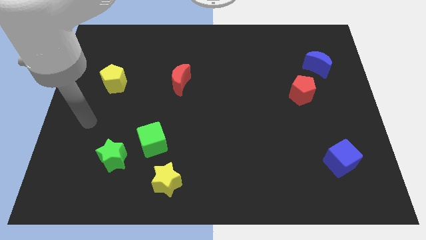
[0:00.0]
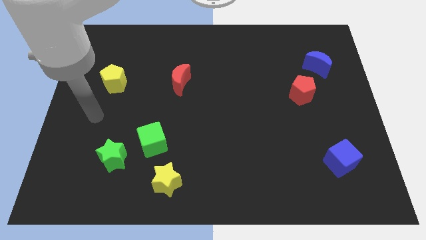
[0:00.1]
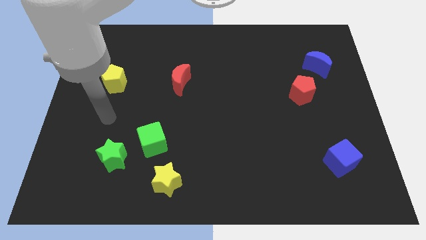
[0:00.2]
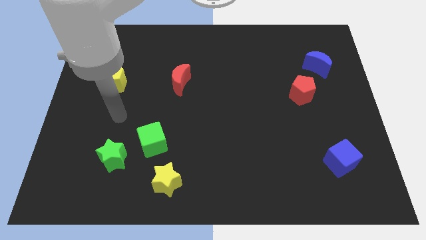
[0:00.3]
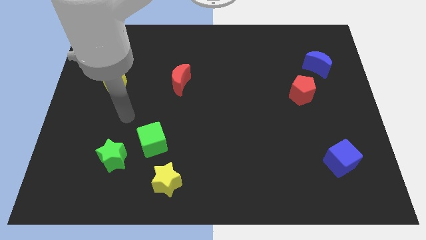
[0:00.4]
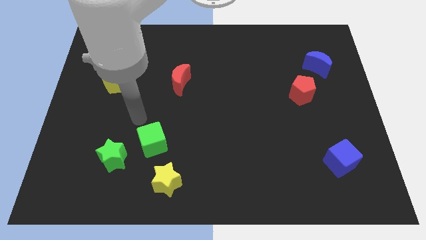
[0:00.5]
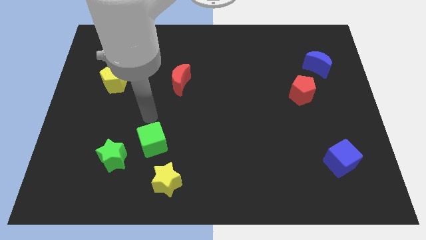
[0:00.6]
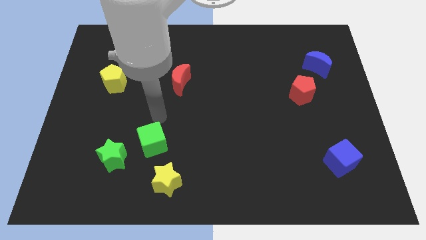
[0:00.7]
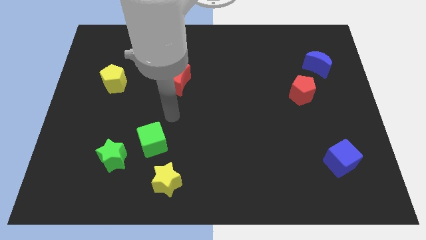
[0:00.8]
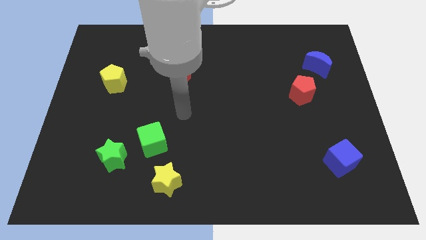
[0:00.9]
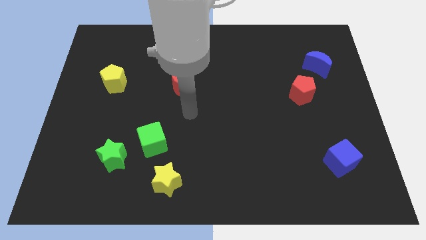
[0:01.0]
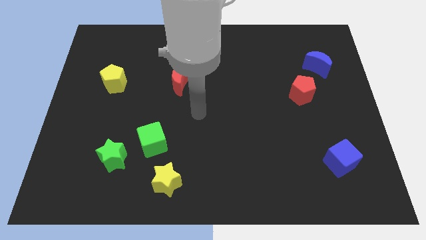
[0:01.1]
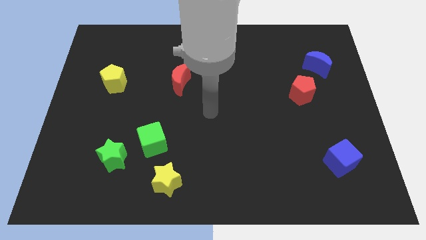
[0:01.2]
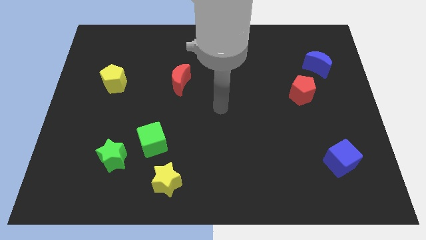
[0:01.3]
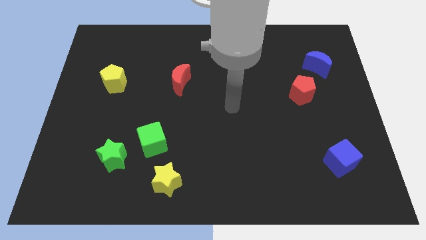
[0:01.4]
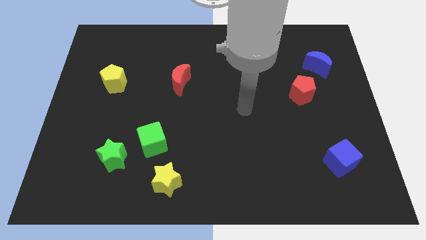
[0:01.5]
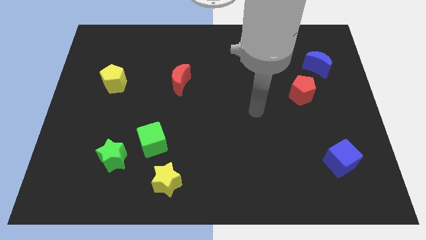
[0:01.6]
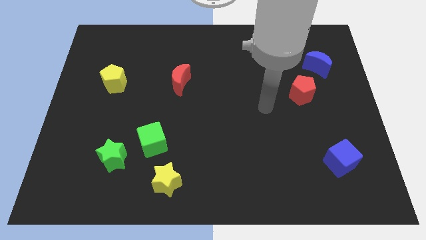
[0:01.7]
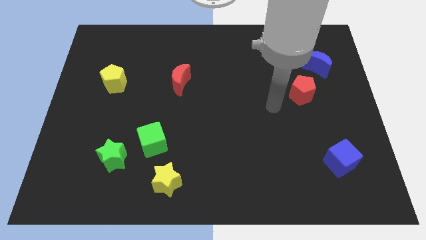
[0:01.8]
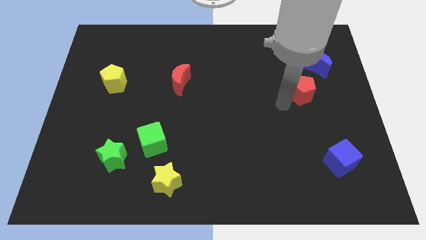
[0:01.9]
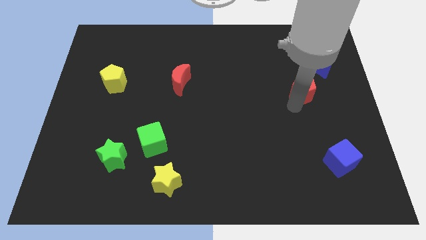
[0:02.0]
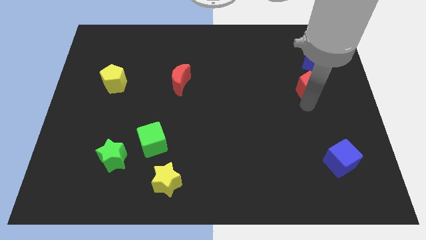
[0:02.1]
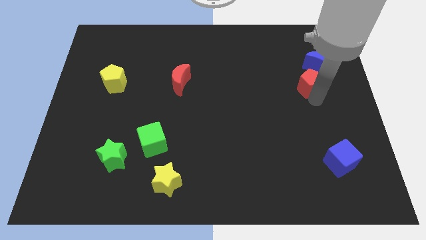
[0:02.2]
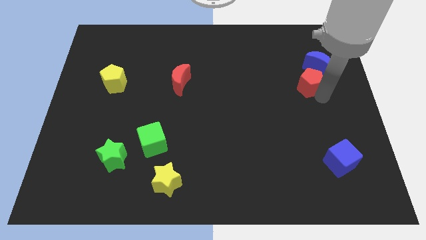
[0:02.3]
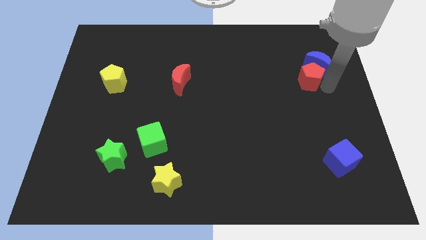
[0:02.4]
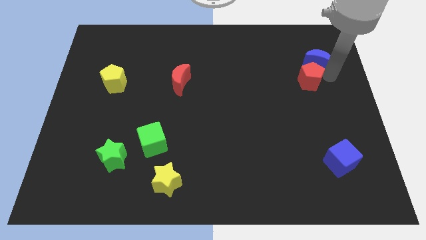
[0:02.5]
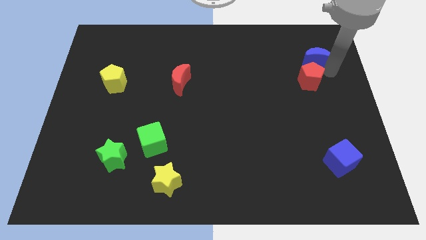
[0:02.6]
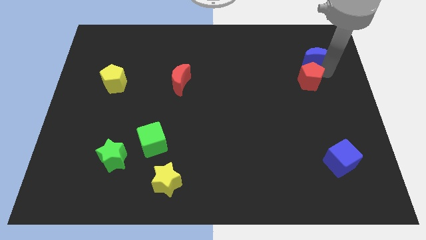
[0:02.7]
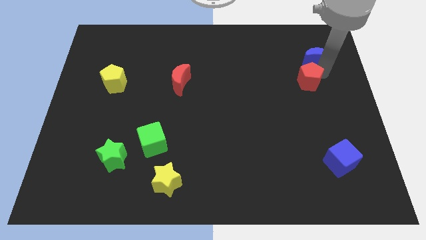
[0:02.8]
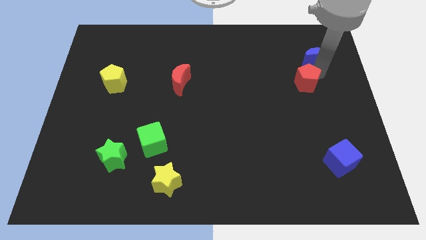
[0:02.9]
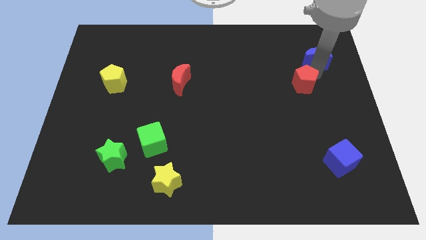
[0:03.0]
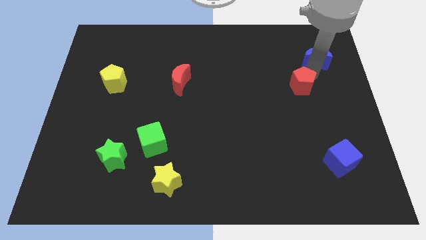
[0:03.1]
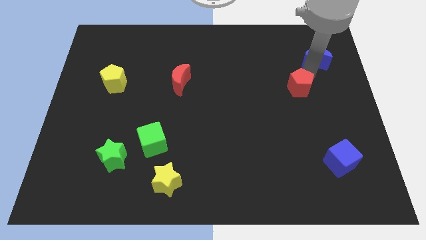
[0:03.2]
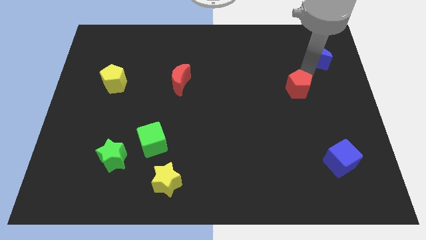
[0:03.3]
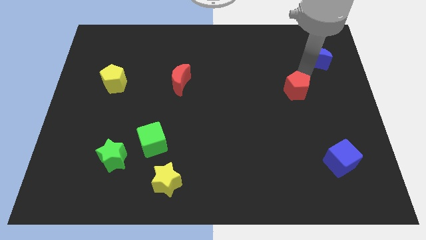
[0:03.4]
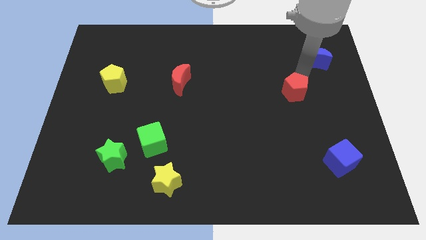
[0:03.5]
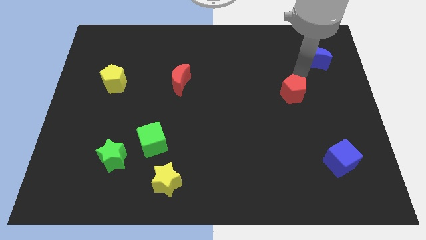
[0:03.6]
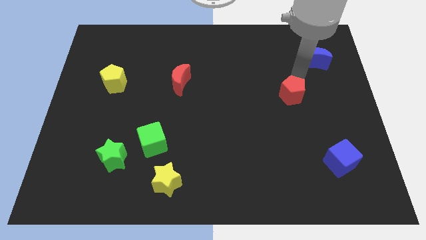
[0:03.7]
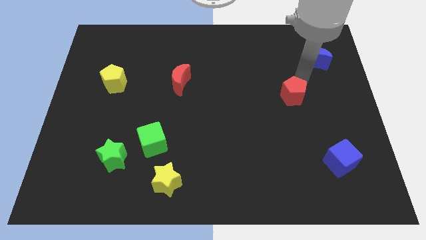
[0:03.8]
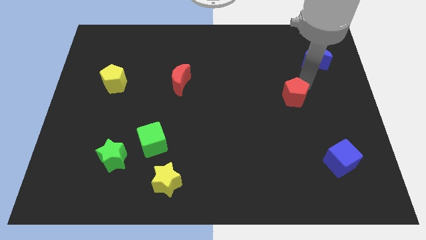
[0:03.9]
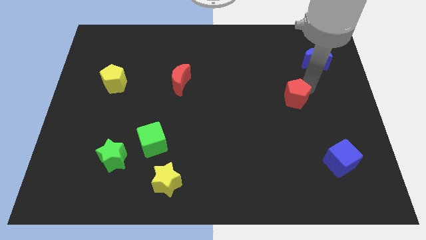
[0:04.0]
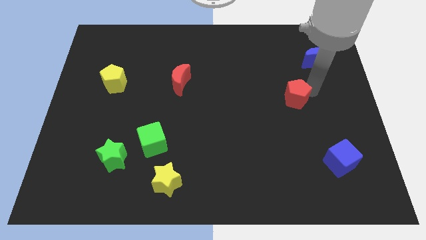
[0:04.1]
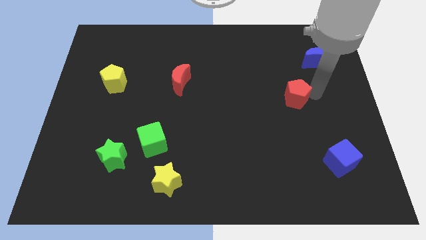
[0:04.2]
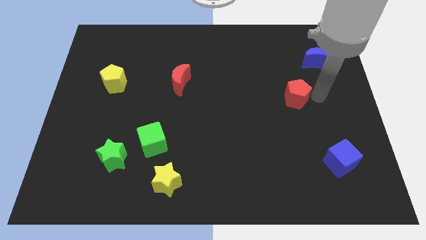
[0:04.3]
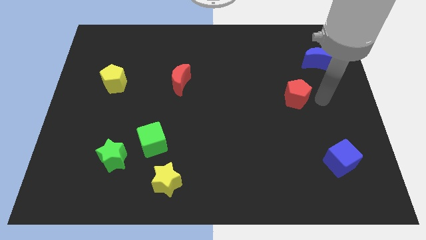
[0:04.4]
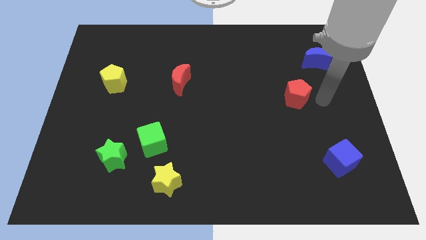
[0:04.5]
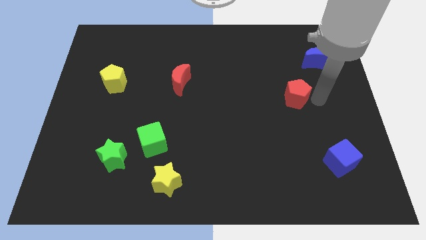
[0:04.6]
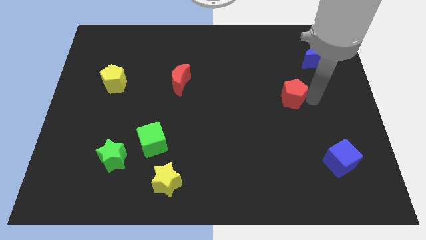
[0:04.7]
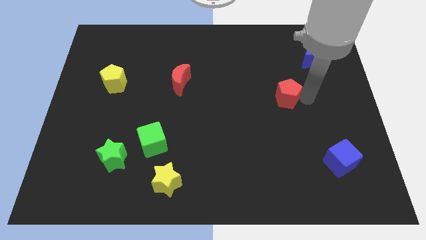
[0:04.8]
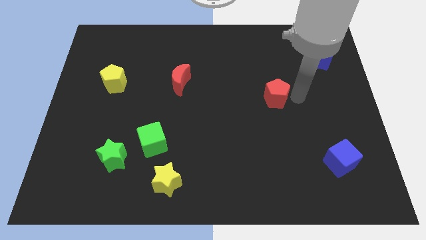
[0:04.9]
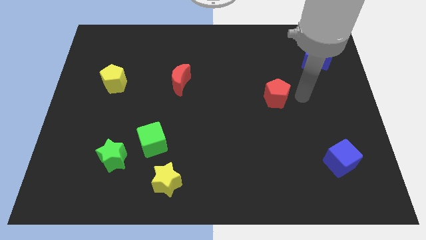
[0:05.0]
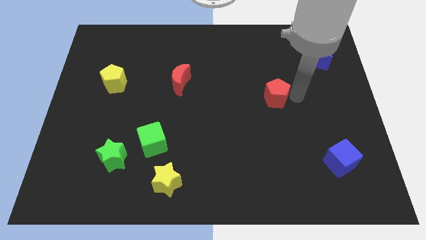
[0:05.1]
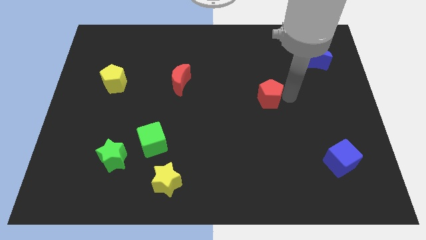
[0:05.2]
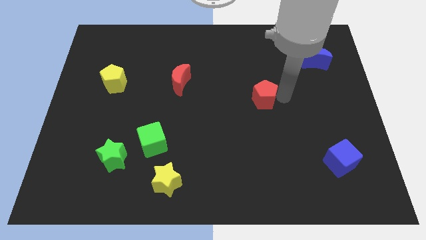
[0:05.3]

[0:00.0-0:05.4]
push the red pentagon to the middle
